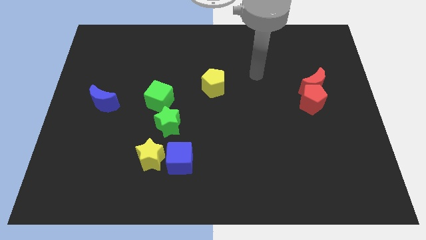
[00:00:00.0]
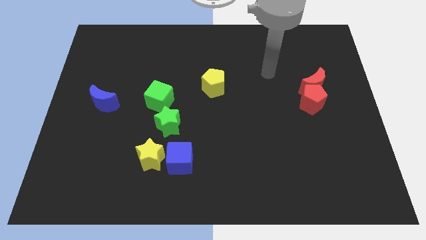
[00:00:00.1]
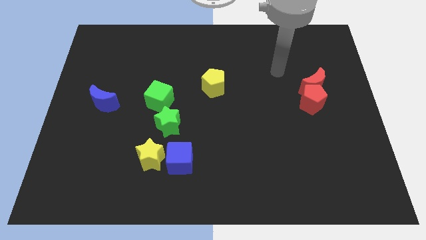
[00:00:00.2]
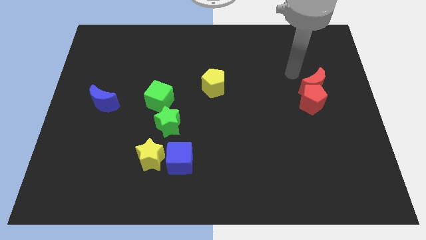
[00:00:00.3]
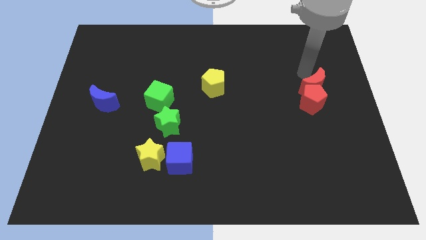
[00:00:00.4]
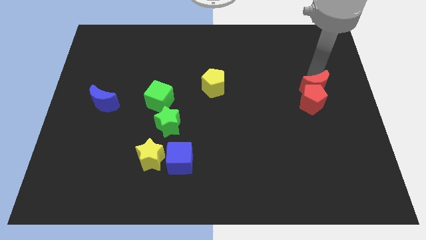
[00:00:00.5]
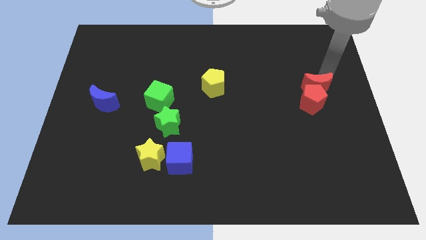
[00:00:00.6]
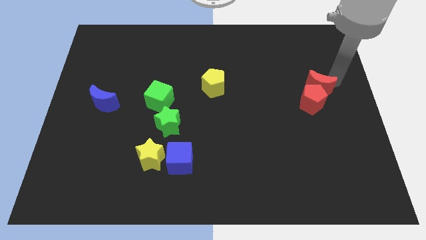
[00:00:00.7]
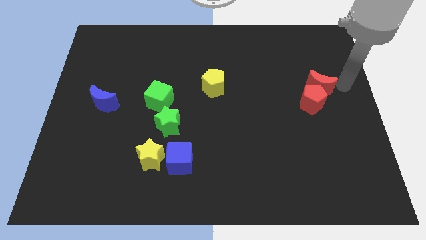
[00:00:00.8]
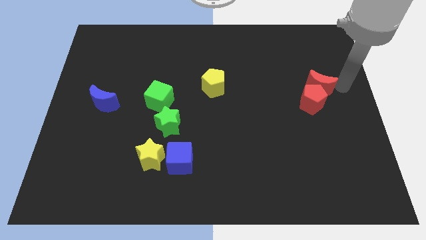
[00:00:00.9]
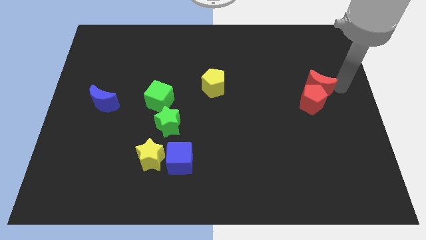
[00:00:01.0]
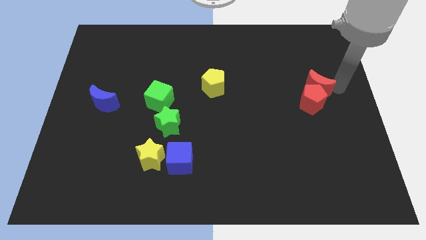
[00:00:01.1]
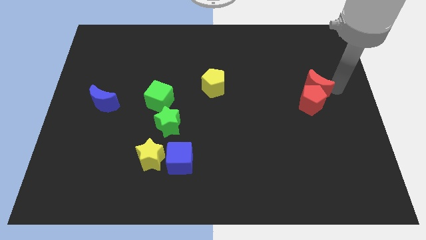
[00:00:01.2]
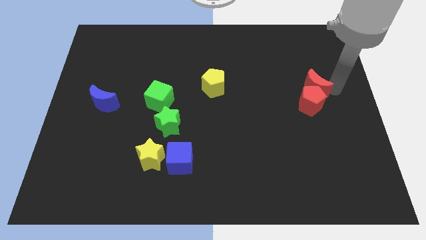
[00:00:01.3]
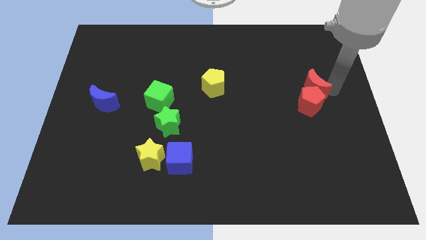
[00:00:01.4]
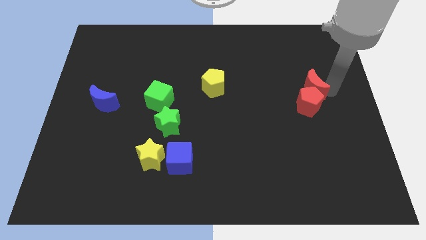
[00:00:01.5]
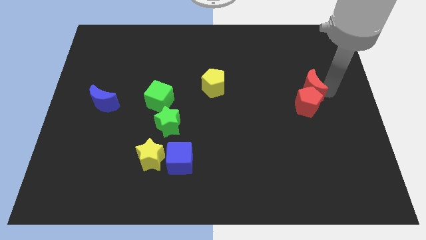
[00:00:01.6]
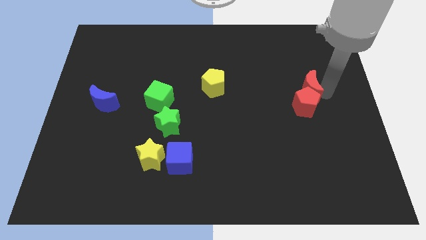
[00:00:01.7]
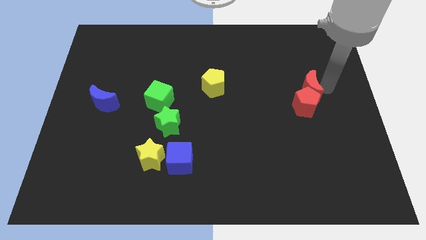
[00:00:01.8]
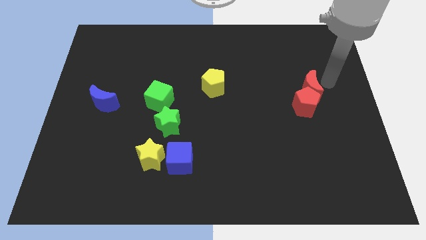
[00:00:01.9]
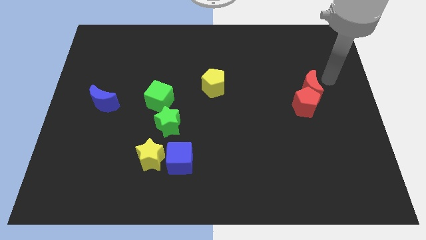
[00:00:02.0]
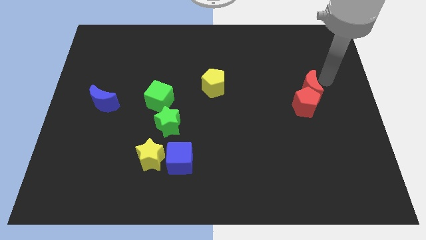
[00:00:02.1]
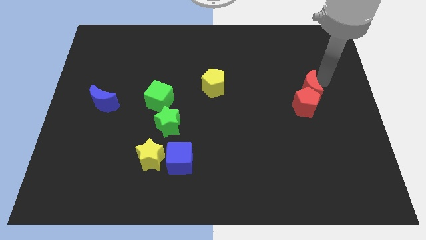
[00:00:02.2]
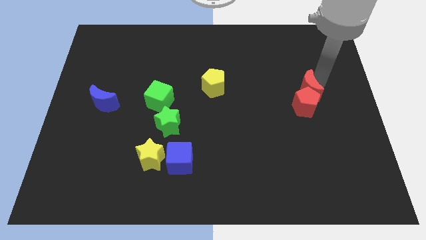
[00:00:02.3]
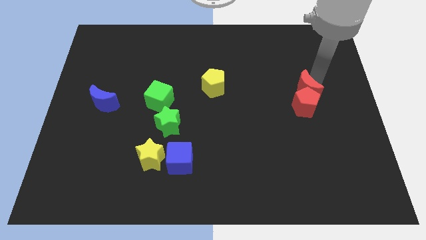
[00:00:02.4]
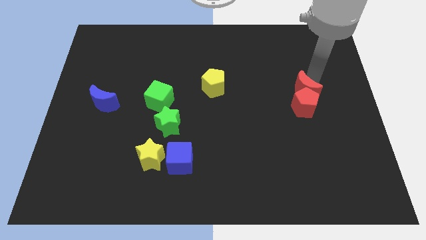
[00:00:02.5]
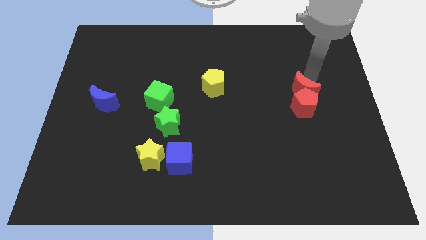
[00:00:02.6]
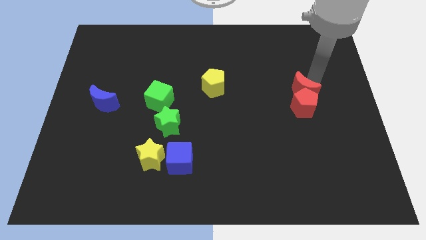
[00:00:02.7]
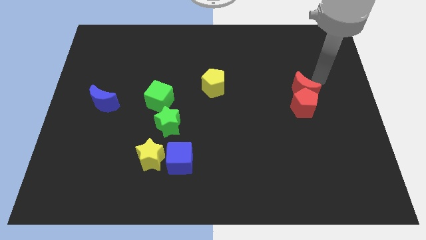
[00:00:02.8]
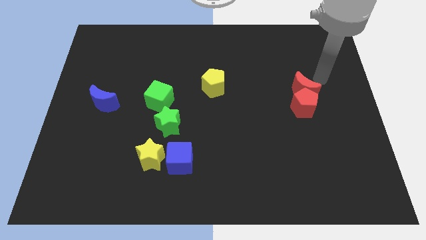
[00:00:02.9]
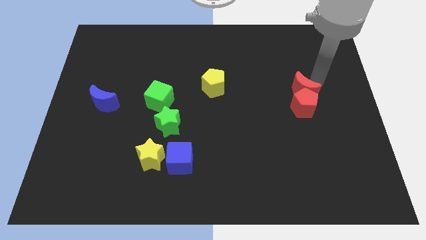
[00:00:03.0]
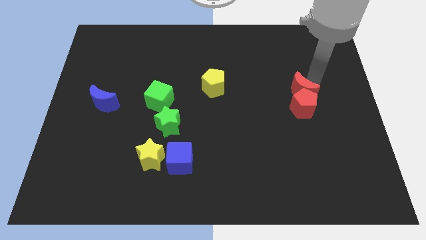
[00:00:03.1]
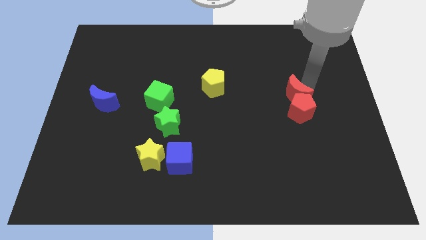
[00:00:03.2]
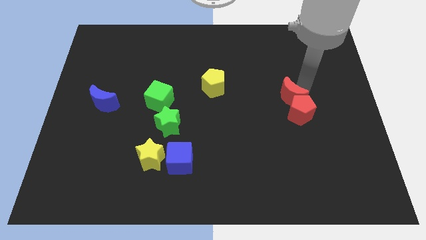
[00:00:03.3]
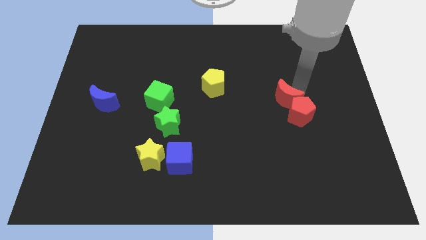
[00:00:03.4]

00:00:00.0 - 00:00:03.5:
move the red moon a little bit downwards and left diagonally

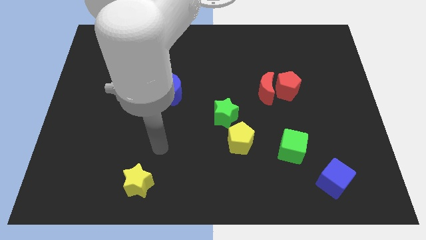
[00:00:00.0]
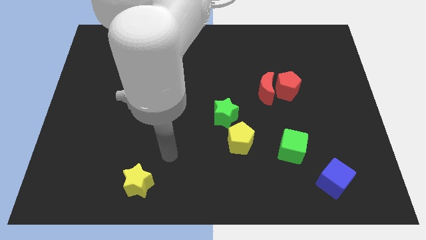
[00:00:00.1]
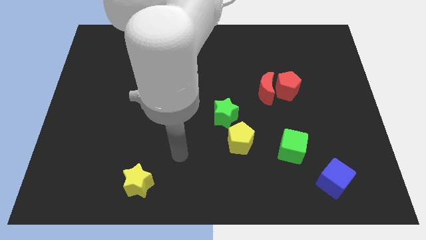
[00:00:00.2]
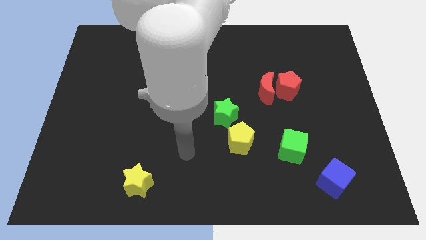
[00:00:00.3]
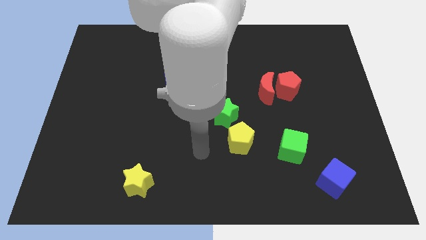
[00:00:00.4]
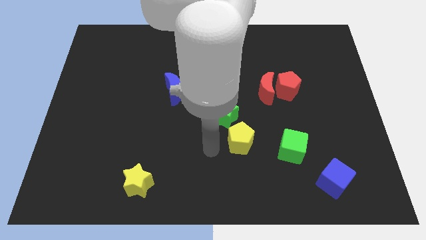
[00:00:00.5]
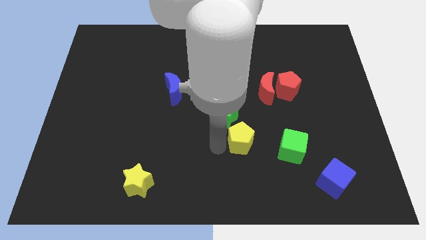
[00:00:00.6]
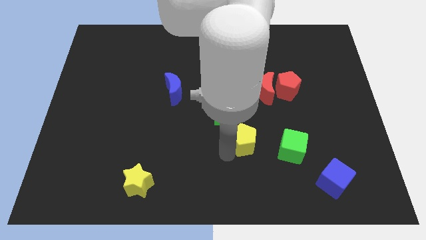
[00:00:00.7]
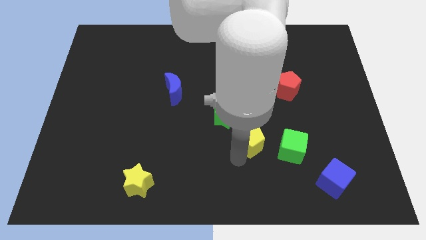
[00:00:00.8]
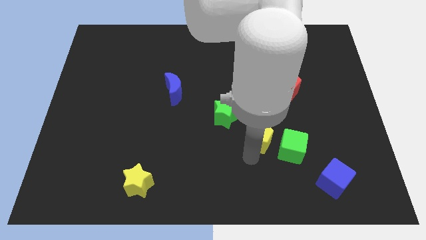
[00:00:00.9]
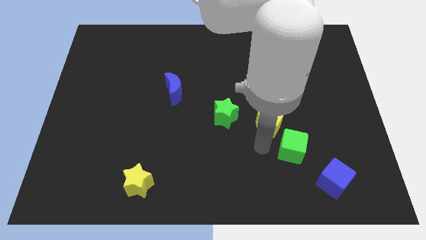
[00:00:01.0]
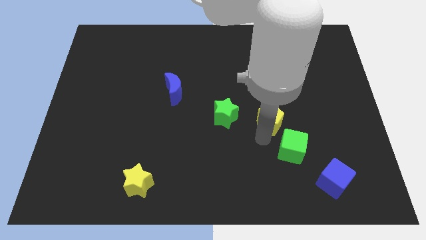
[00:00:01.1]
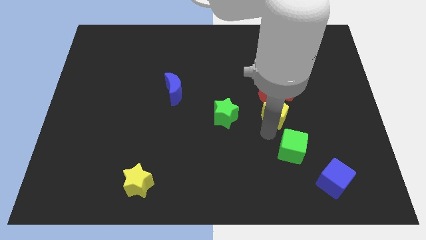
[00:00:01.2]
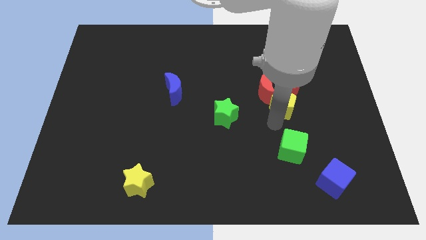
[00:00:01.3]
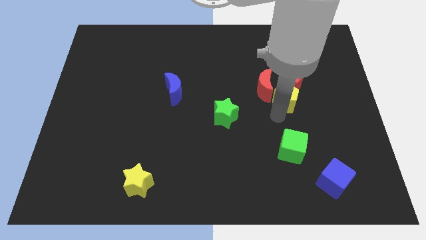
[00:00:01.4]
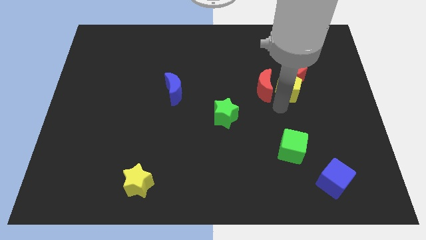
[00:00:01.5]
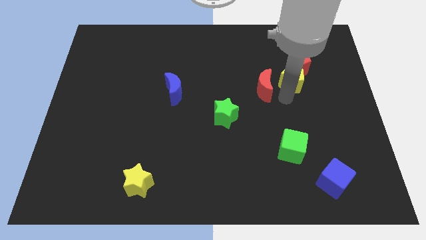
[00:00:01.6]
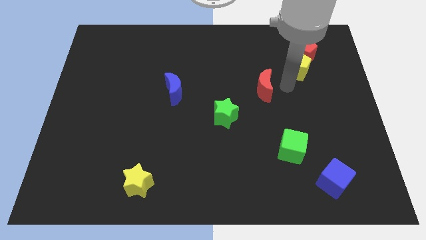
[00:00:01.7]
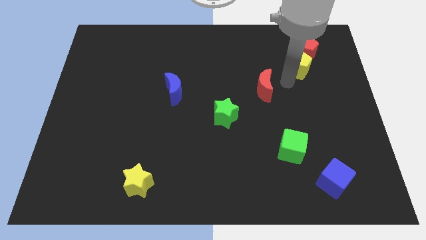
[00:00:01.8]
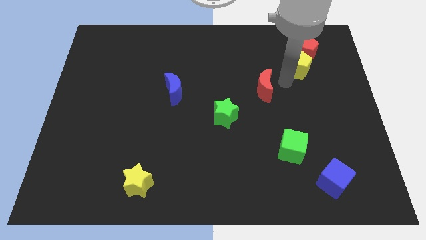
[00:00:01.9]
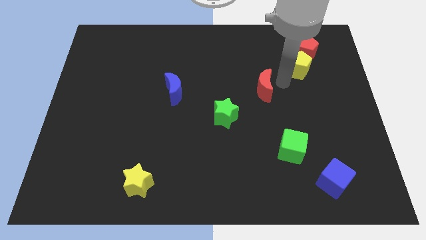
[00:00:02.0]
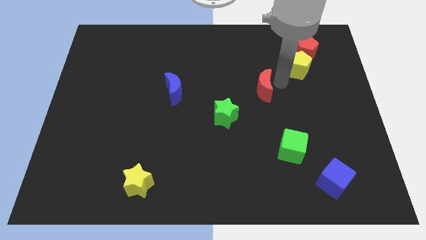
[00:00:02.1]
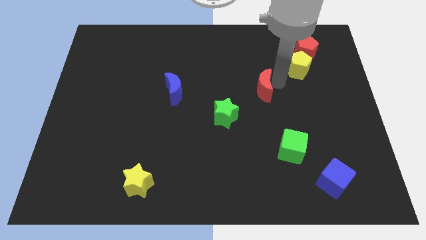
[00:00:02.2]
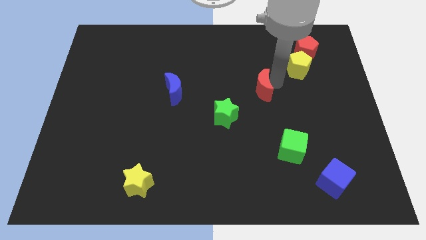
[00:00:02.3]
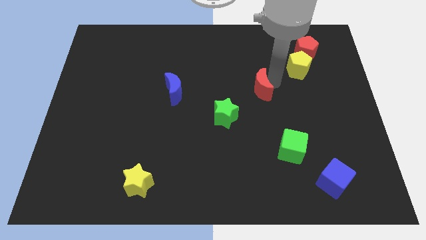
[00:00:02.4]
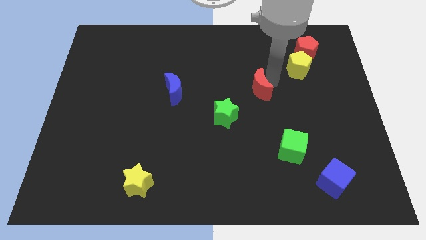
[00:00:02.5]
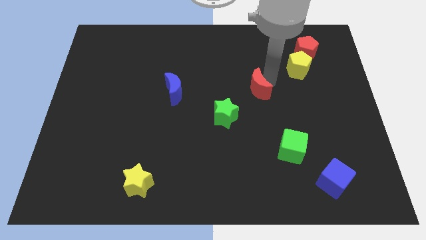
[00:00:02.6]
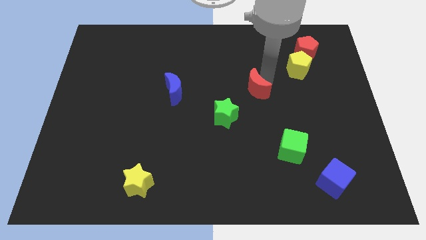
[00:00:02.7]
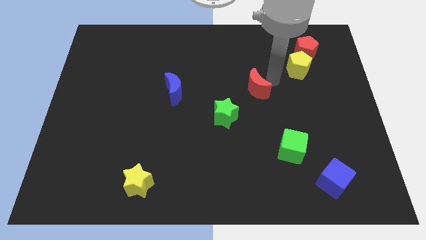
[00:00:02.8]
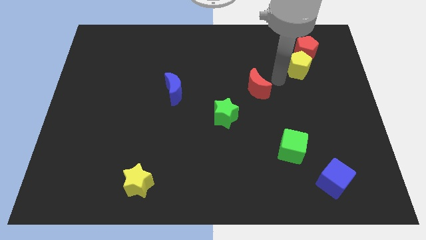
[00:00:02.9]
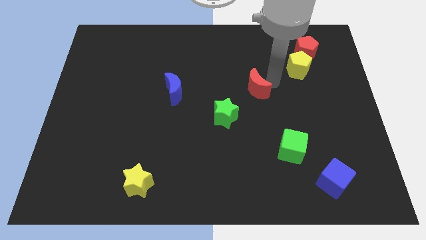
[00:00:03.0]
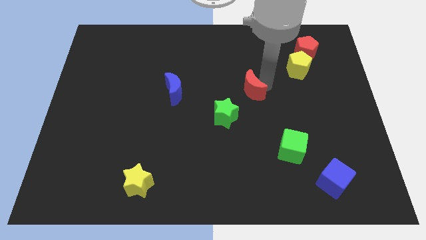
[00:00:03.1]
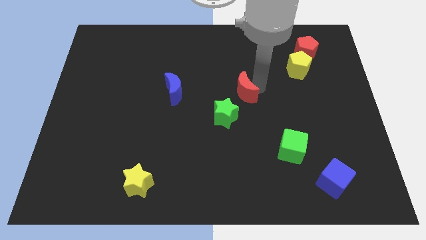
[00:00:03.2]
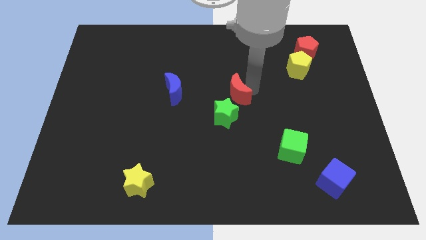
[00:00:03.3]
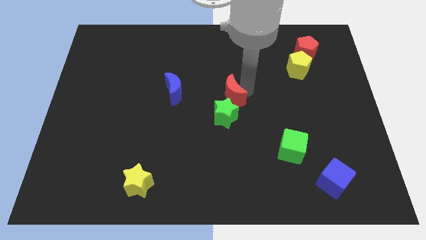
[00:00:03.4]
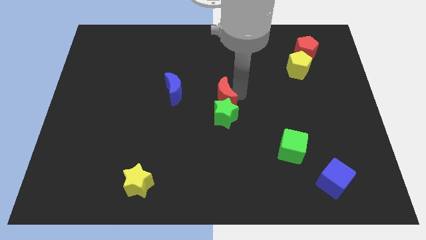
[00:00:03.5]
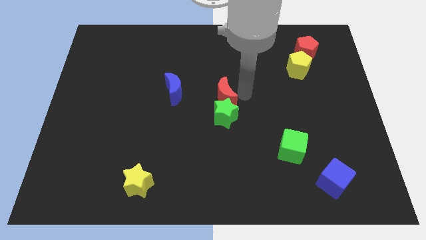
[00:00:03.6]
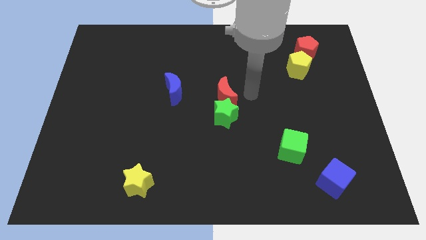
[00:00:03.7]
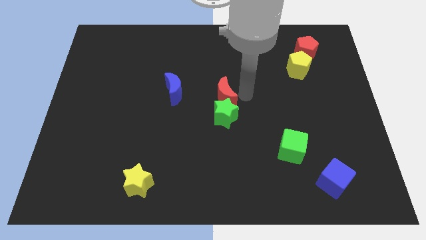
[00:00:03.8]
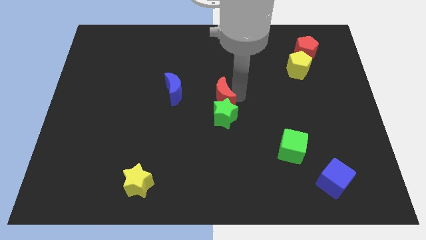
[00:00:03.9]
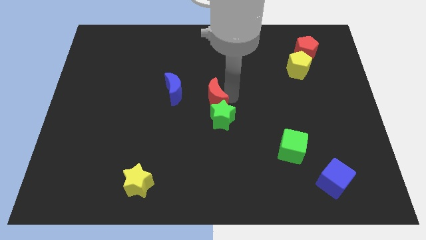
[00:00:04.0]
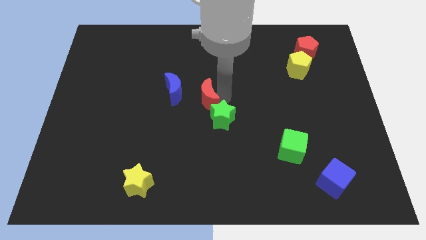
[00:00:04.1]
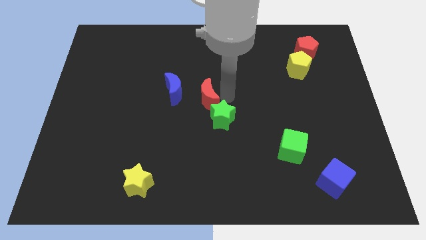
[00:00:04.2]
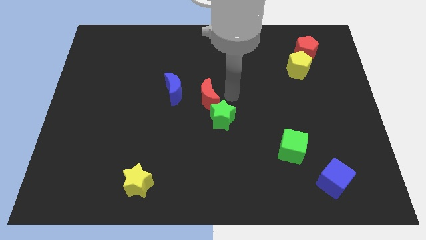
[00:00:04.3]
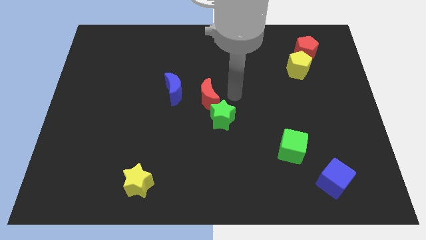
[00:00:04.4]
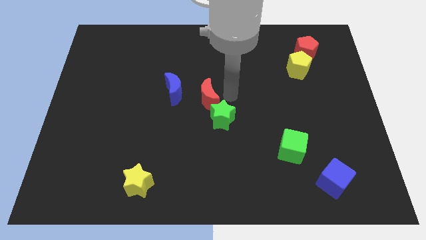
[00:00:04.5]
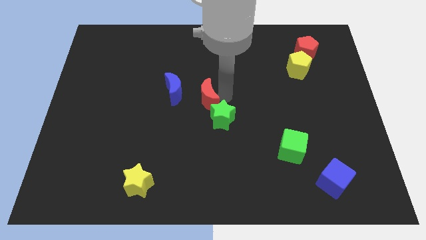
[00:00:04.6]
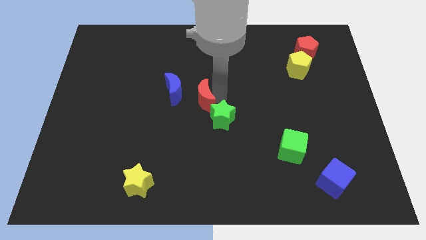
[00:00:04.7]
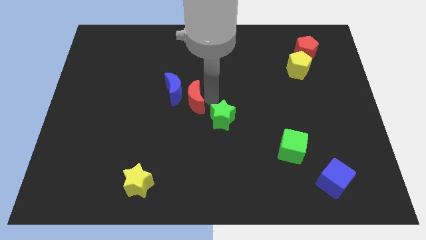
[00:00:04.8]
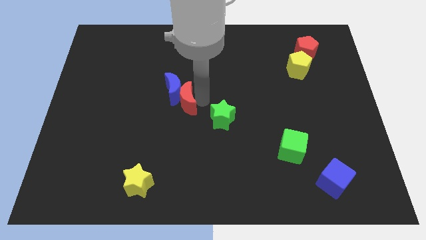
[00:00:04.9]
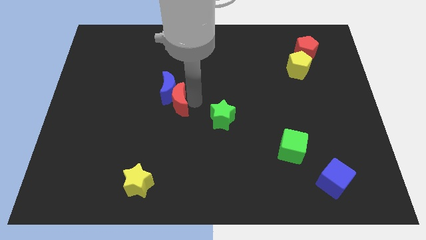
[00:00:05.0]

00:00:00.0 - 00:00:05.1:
slide the red moon left
